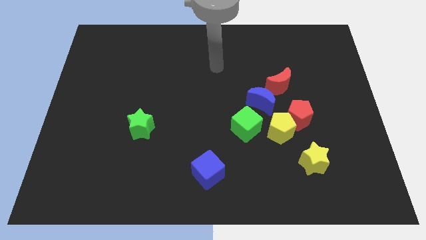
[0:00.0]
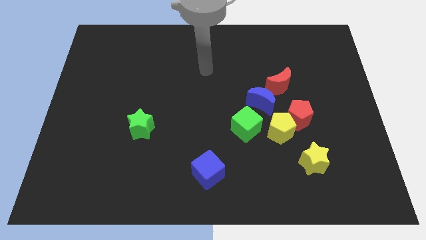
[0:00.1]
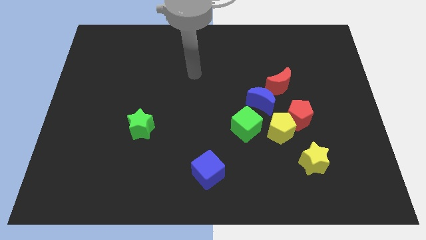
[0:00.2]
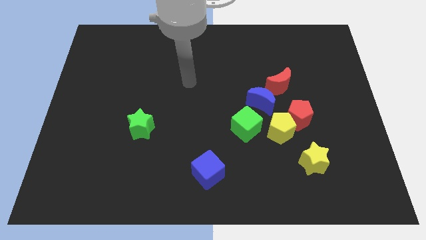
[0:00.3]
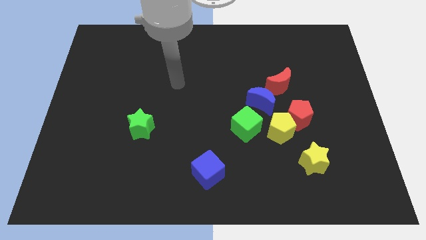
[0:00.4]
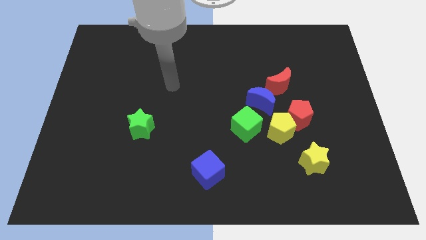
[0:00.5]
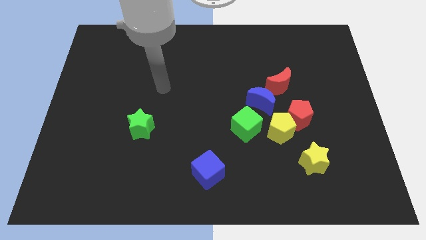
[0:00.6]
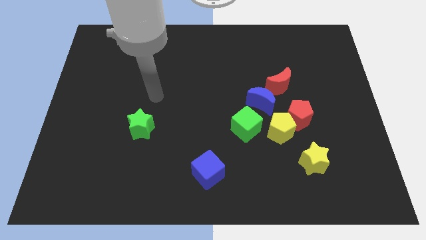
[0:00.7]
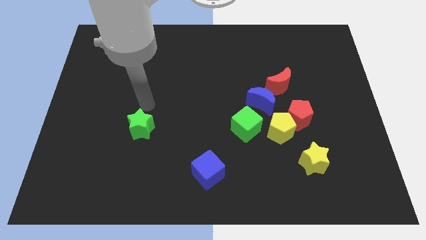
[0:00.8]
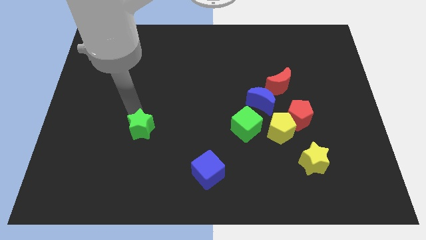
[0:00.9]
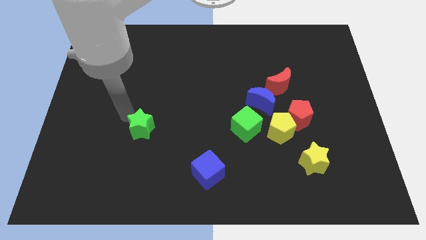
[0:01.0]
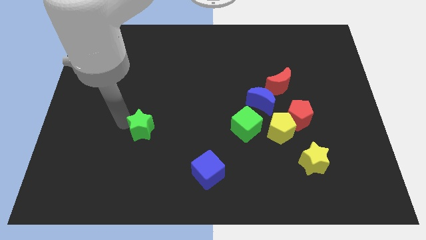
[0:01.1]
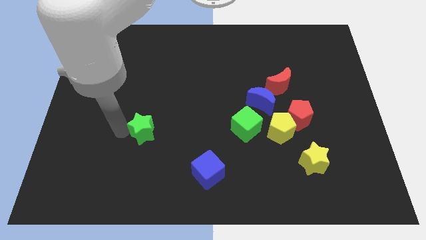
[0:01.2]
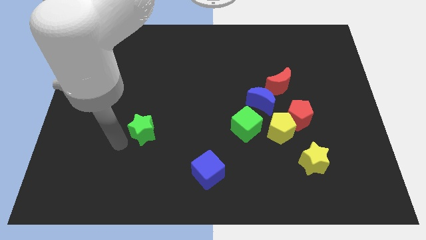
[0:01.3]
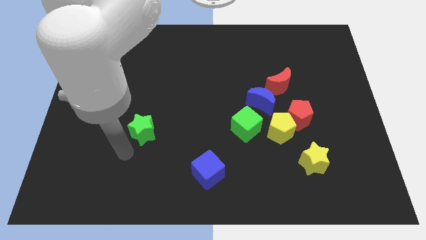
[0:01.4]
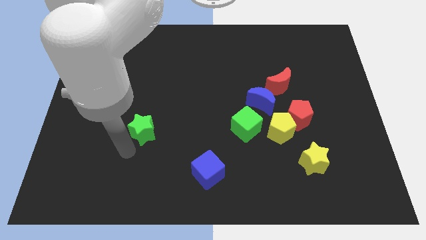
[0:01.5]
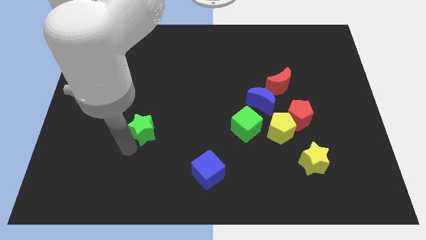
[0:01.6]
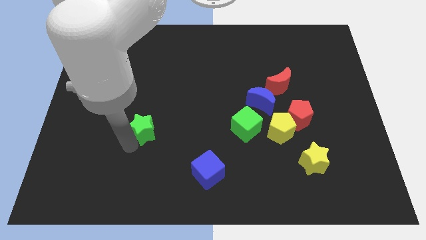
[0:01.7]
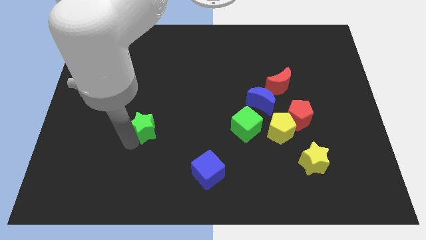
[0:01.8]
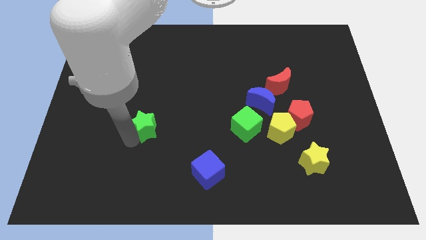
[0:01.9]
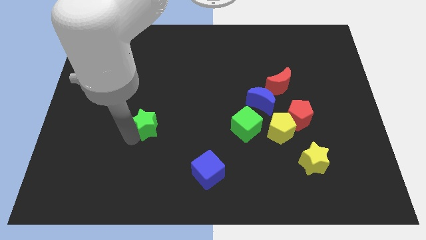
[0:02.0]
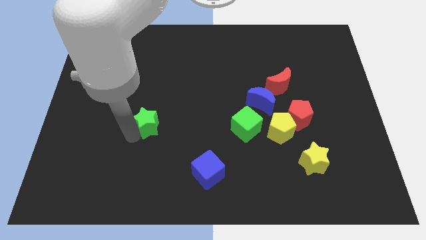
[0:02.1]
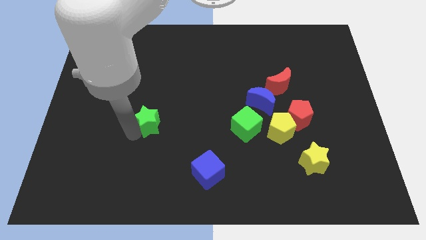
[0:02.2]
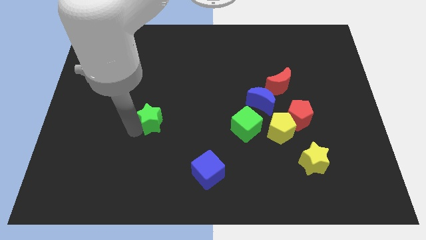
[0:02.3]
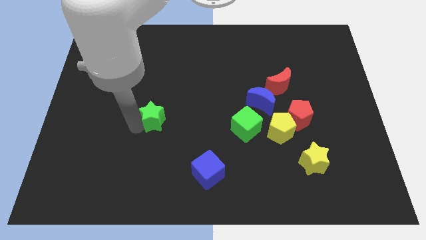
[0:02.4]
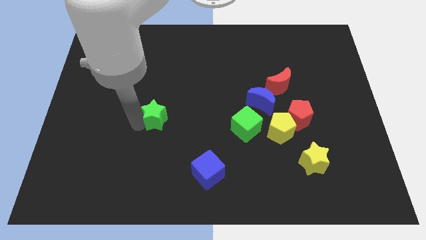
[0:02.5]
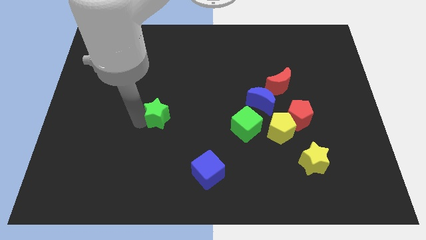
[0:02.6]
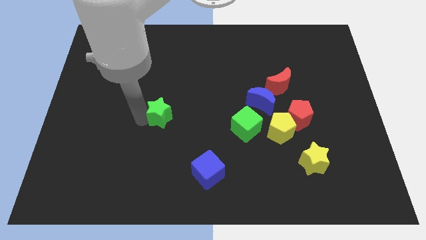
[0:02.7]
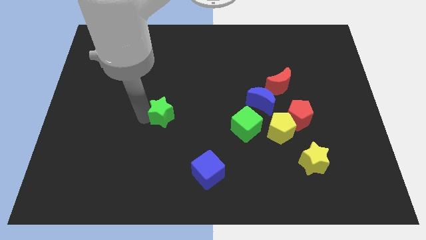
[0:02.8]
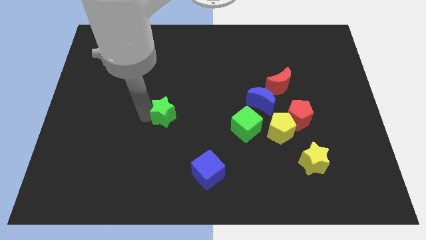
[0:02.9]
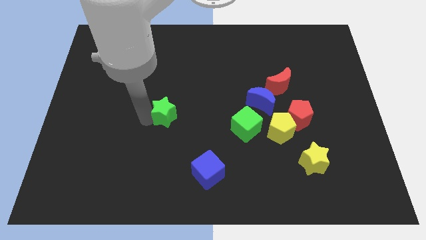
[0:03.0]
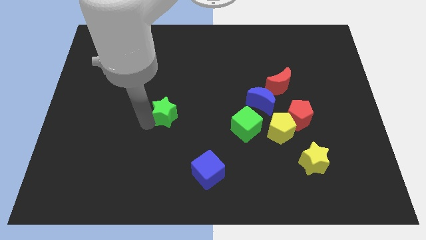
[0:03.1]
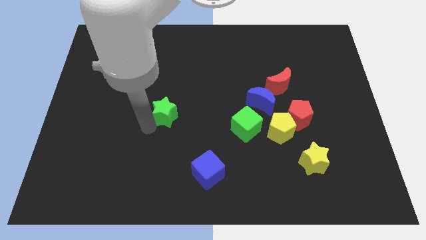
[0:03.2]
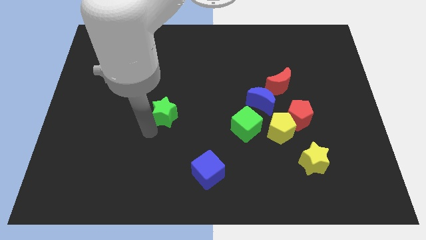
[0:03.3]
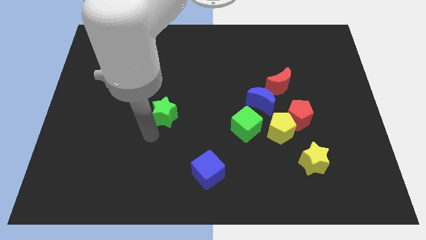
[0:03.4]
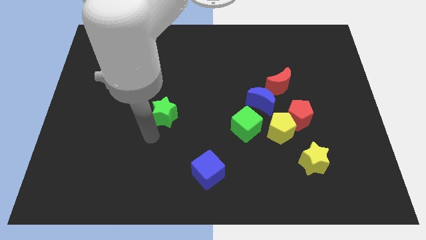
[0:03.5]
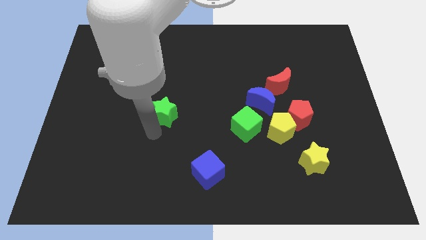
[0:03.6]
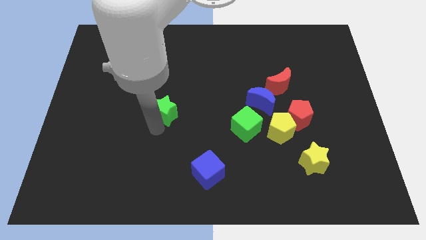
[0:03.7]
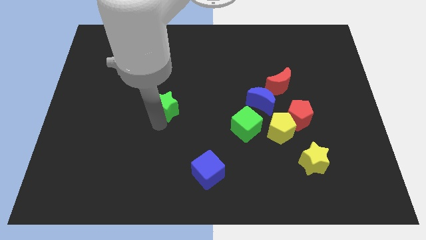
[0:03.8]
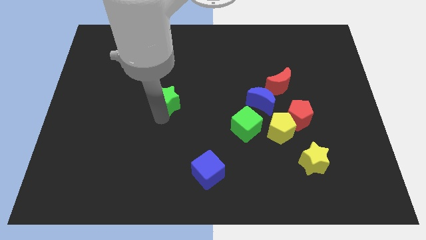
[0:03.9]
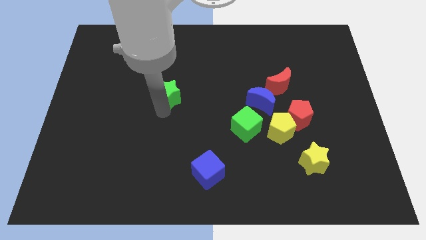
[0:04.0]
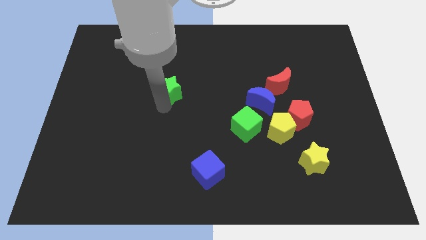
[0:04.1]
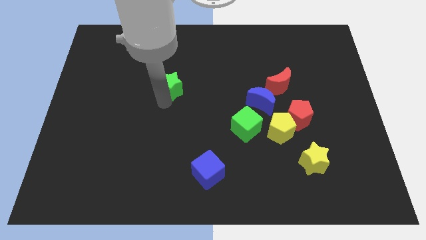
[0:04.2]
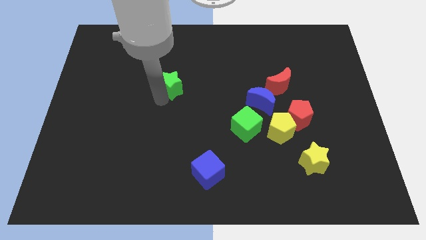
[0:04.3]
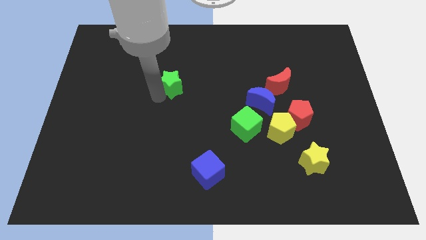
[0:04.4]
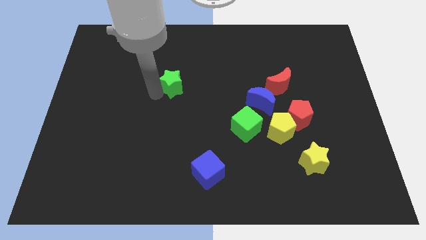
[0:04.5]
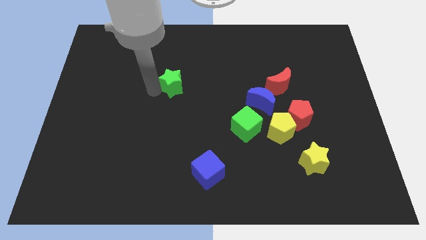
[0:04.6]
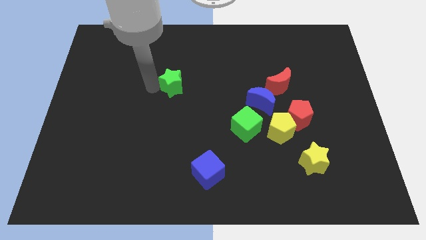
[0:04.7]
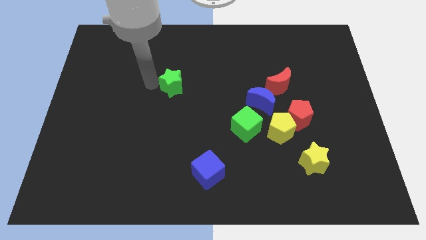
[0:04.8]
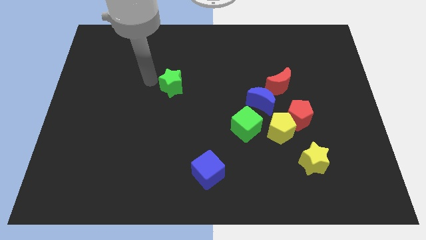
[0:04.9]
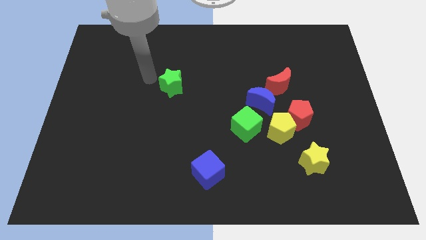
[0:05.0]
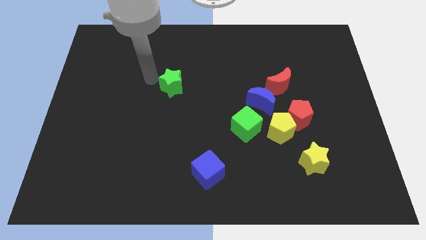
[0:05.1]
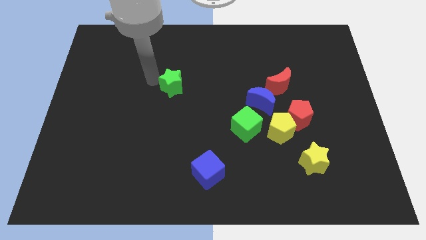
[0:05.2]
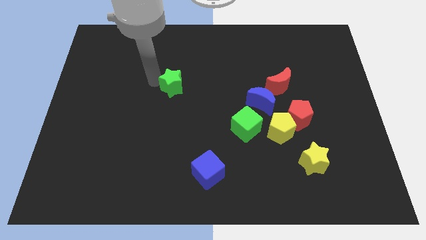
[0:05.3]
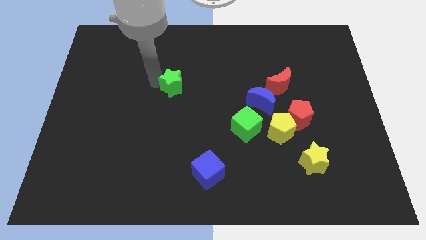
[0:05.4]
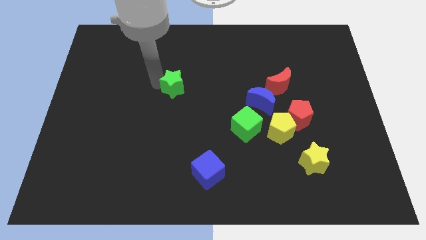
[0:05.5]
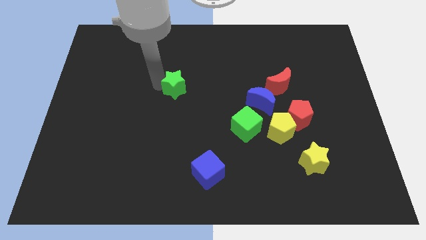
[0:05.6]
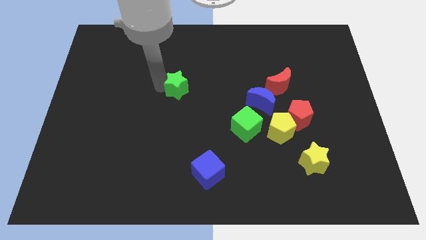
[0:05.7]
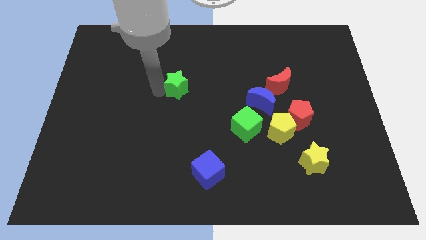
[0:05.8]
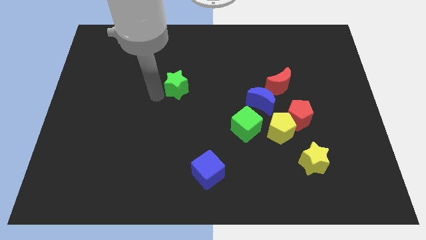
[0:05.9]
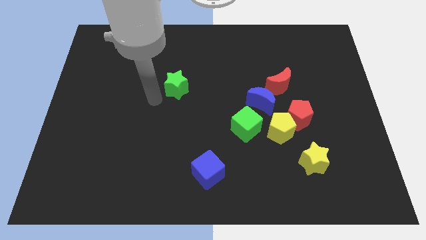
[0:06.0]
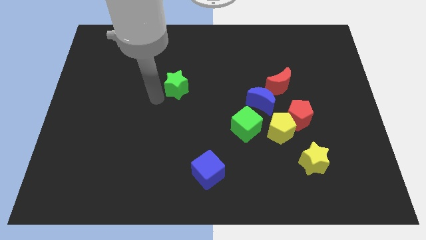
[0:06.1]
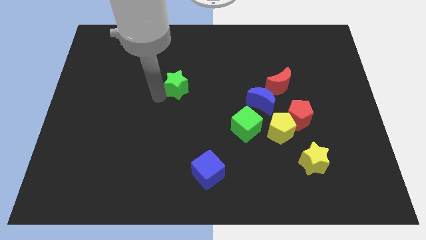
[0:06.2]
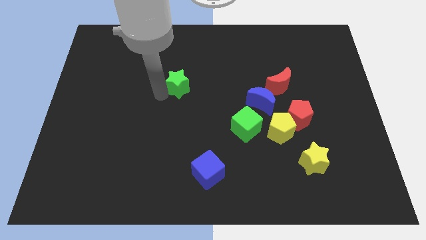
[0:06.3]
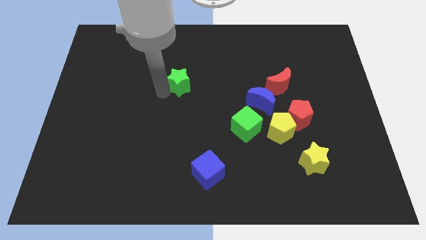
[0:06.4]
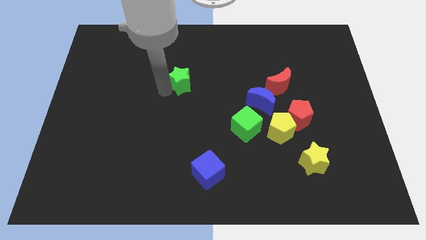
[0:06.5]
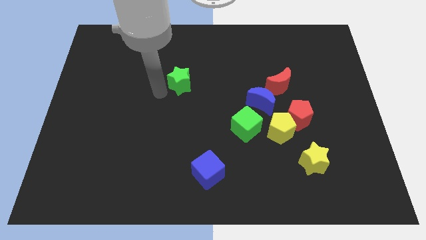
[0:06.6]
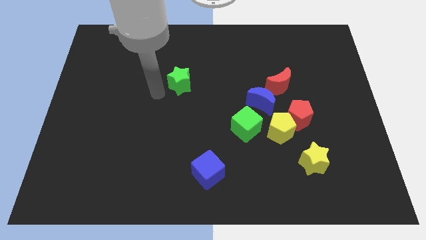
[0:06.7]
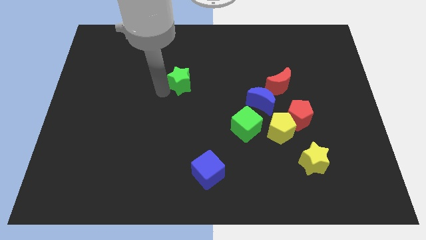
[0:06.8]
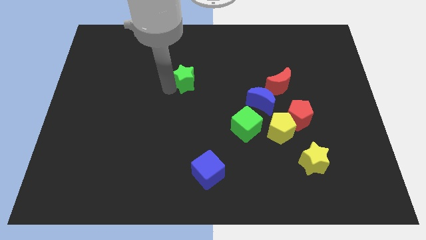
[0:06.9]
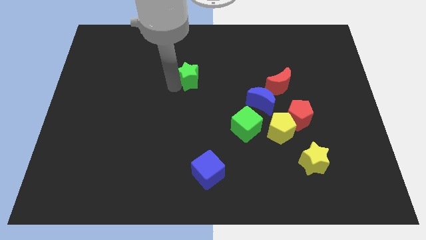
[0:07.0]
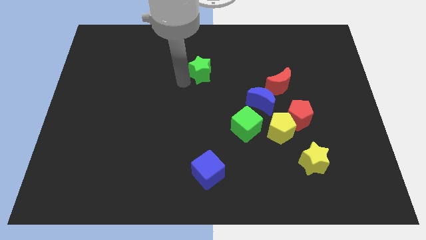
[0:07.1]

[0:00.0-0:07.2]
push the green star diagonally upwards and to the right

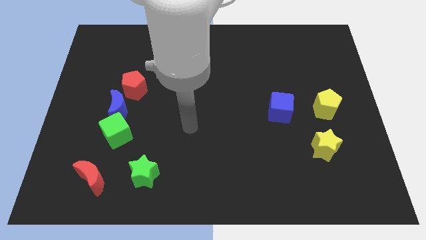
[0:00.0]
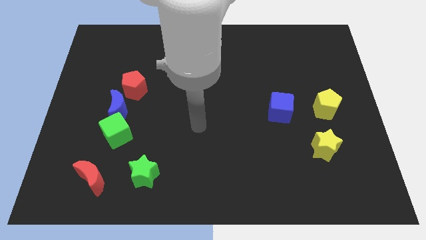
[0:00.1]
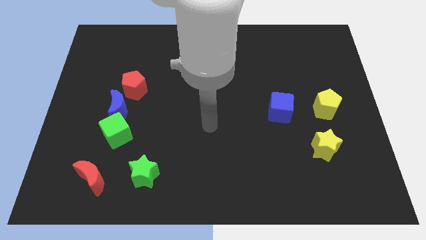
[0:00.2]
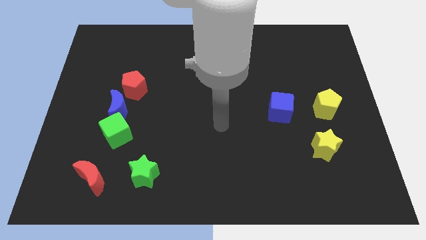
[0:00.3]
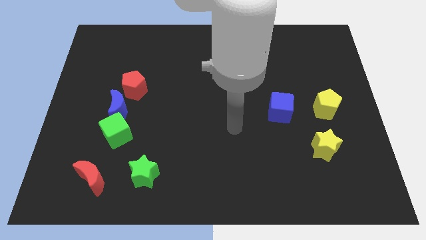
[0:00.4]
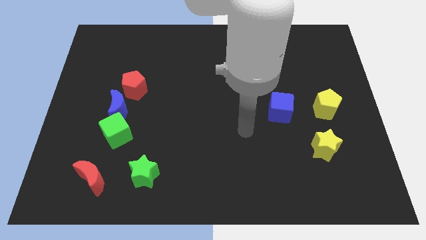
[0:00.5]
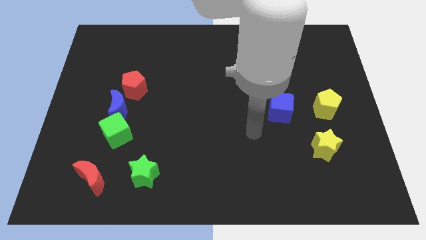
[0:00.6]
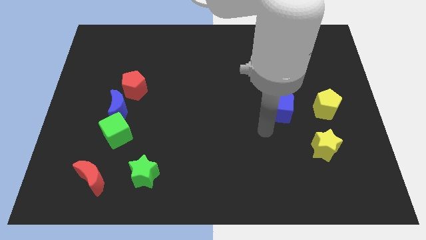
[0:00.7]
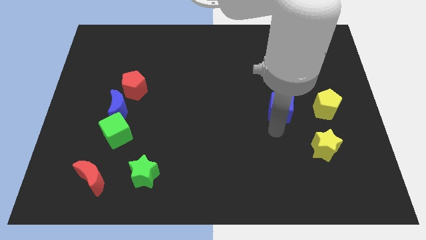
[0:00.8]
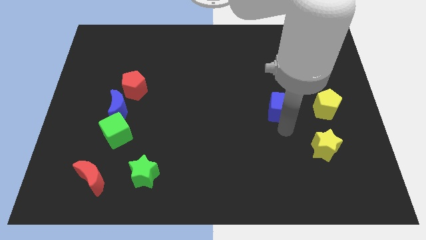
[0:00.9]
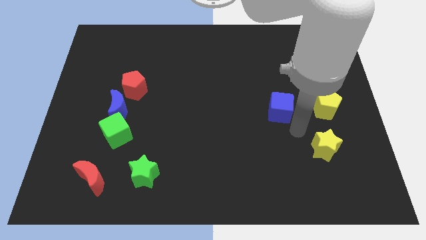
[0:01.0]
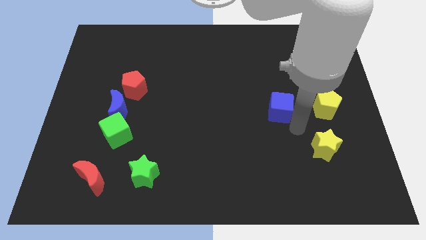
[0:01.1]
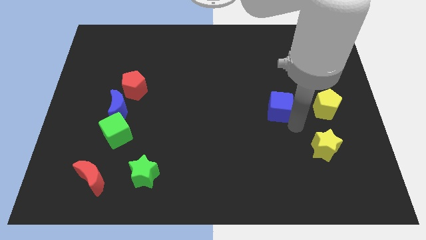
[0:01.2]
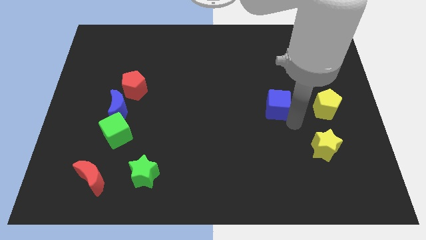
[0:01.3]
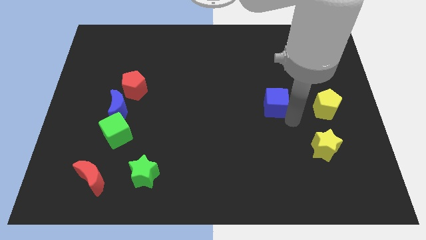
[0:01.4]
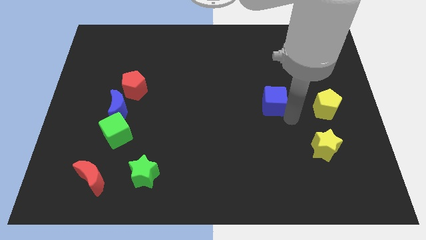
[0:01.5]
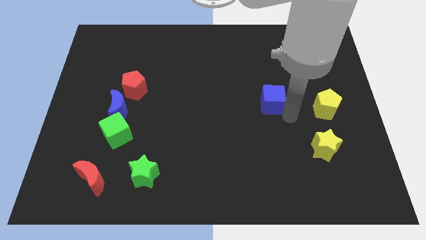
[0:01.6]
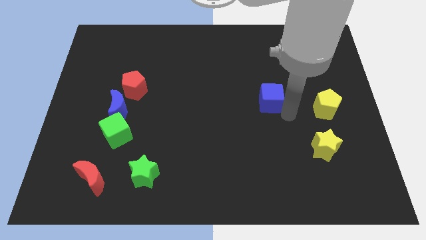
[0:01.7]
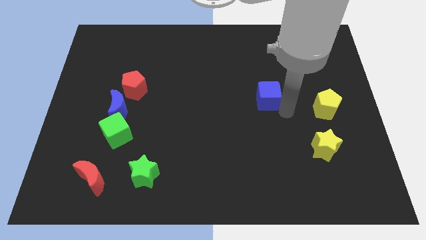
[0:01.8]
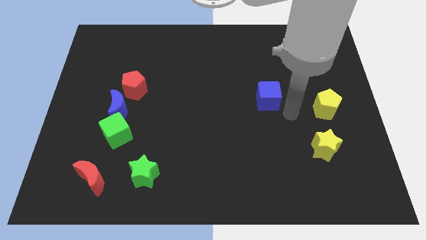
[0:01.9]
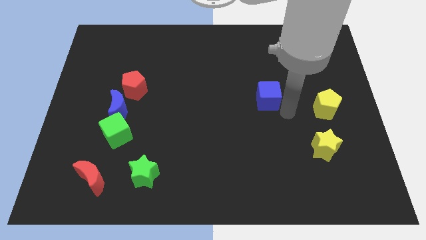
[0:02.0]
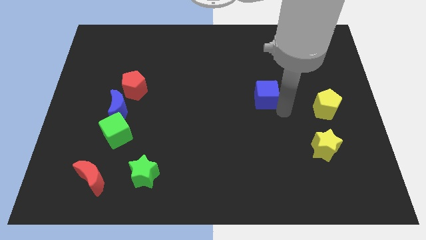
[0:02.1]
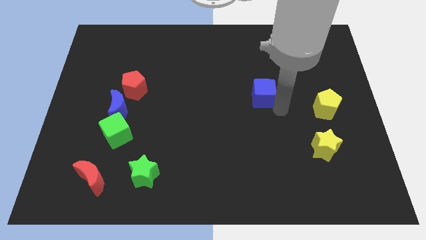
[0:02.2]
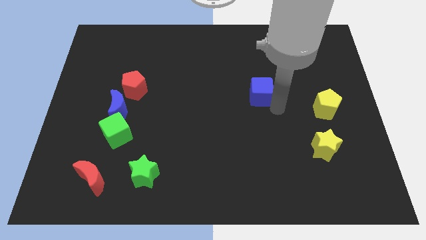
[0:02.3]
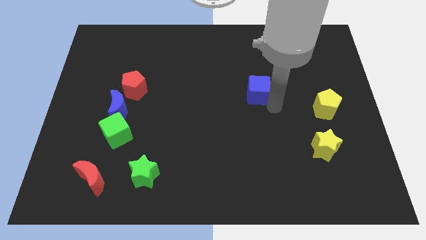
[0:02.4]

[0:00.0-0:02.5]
slide the blue cube a little up and to the left diagonally
